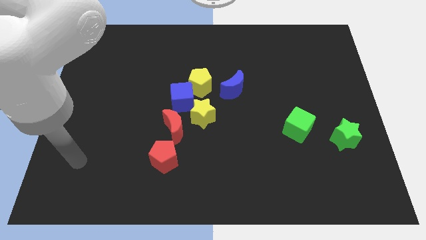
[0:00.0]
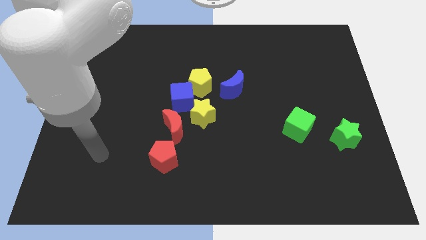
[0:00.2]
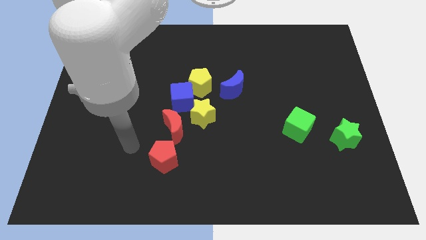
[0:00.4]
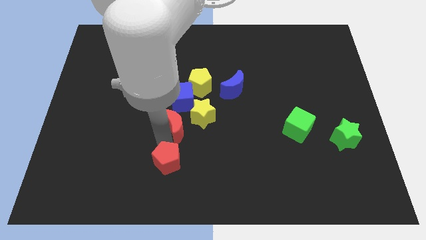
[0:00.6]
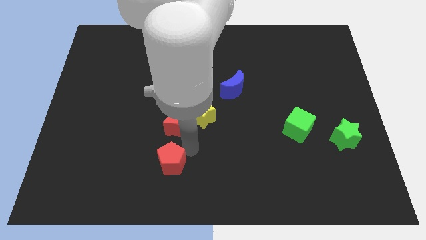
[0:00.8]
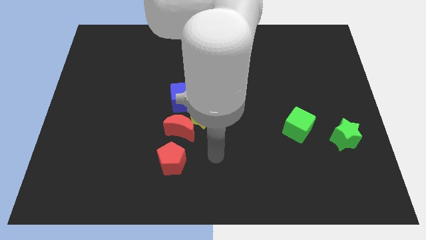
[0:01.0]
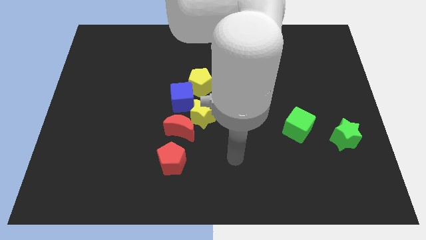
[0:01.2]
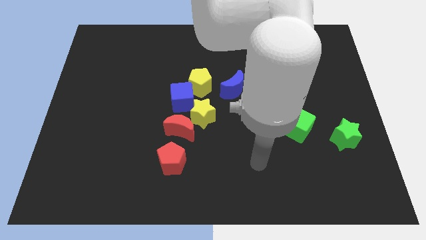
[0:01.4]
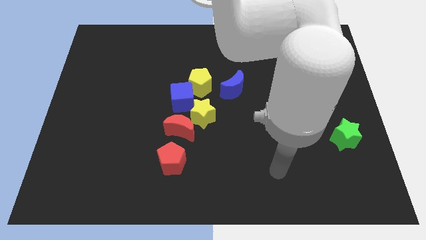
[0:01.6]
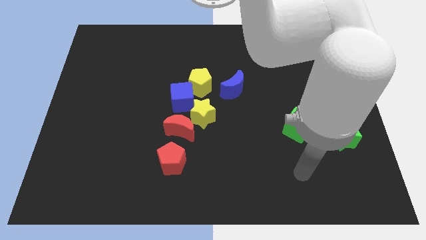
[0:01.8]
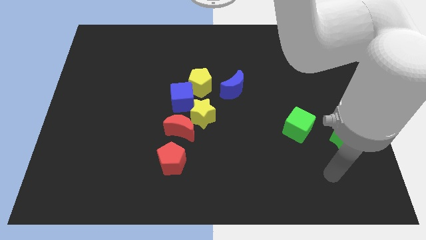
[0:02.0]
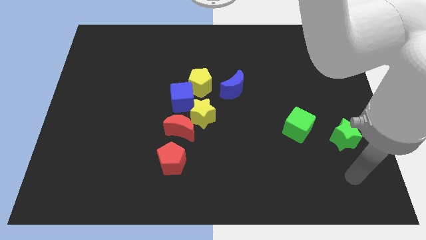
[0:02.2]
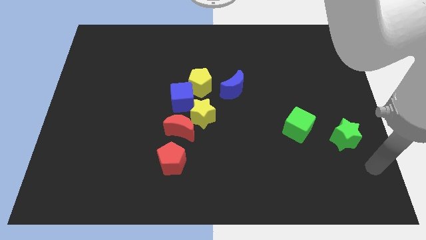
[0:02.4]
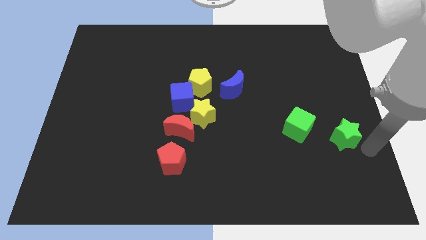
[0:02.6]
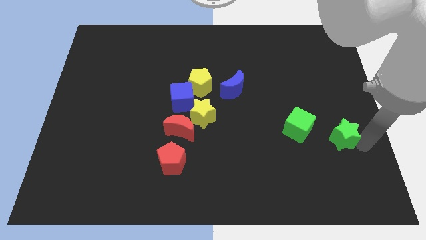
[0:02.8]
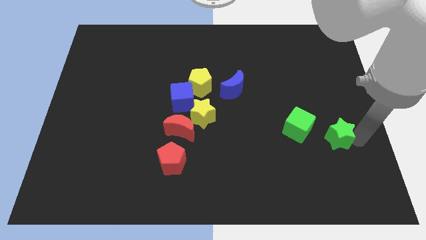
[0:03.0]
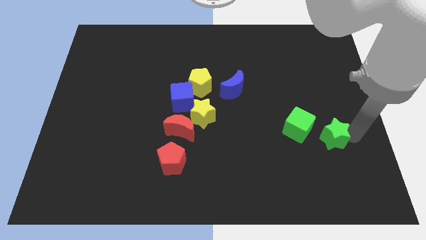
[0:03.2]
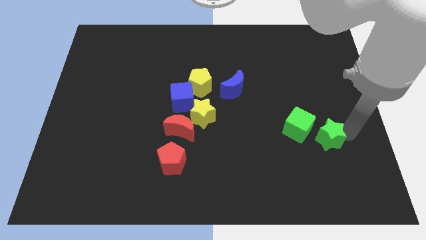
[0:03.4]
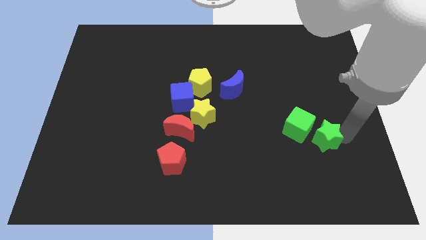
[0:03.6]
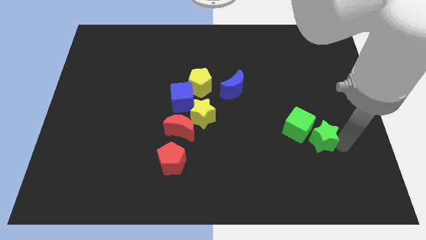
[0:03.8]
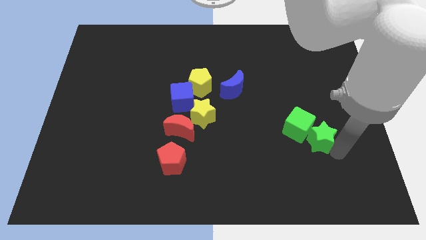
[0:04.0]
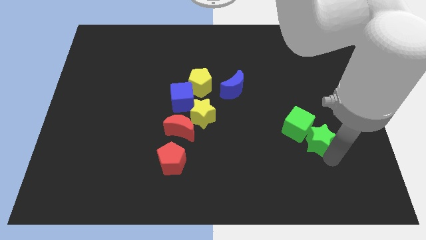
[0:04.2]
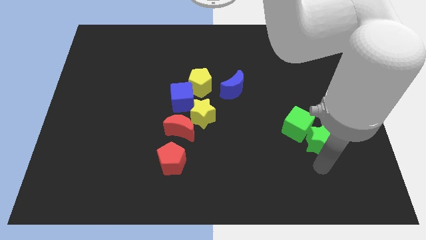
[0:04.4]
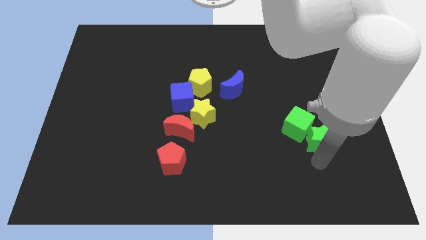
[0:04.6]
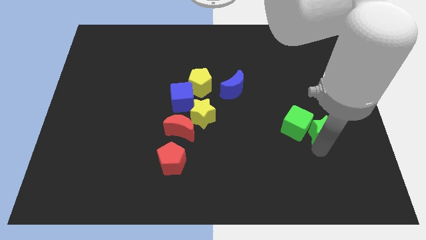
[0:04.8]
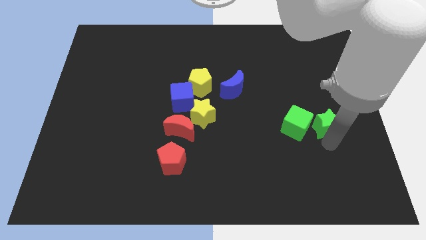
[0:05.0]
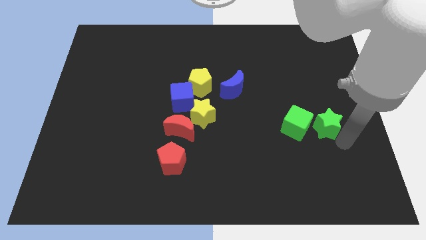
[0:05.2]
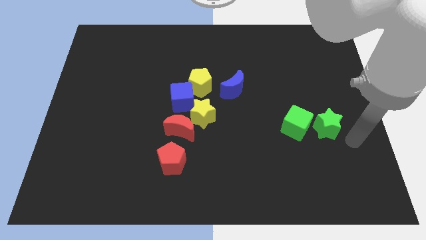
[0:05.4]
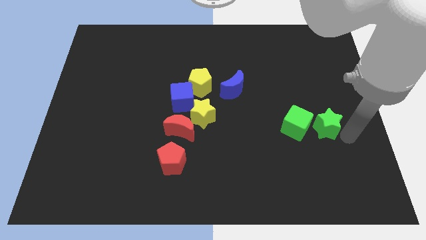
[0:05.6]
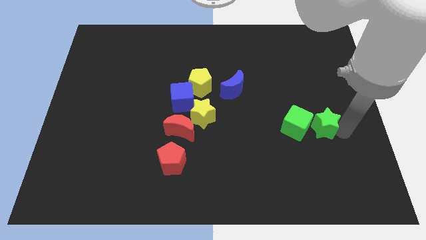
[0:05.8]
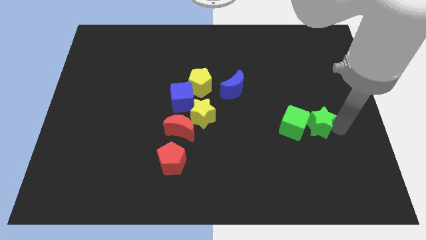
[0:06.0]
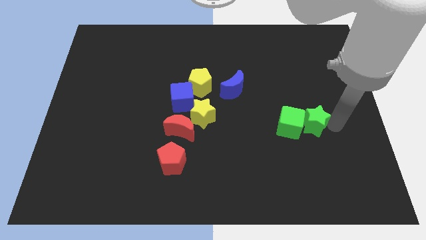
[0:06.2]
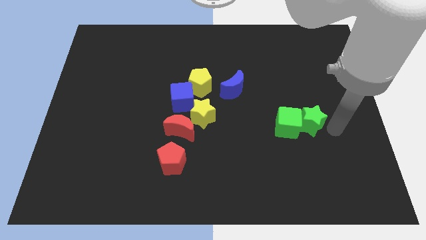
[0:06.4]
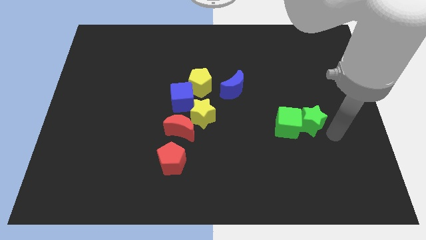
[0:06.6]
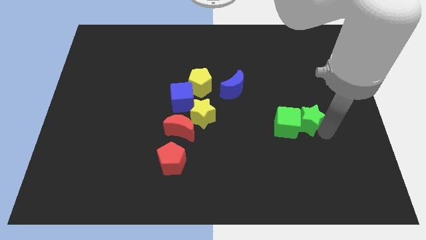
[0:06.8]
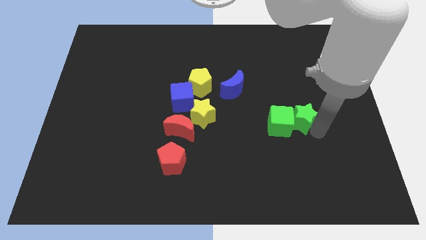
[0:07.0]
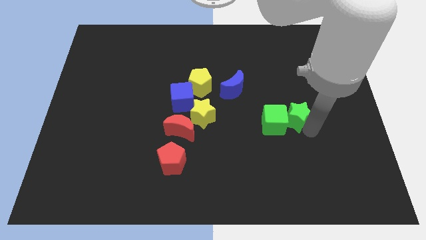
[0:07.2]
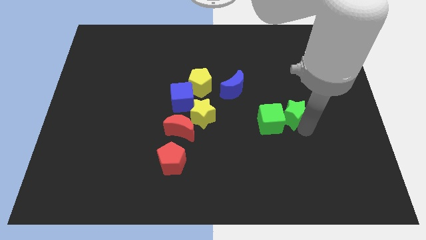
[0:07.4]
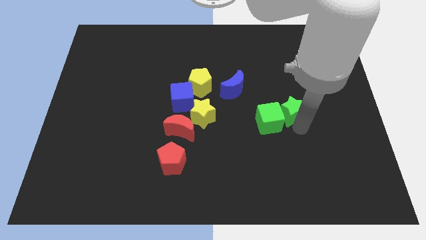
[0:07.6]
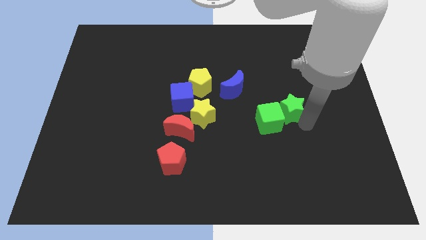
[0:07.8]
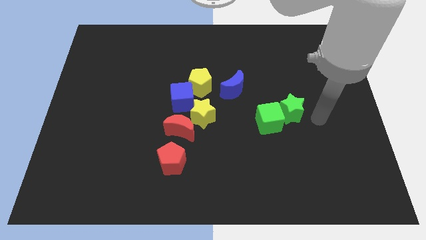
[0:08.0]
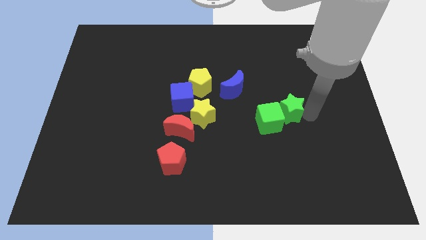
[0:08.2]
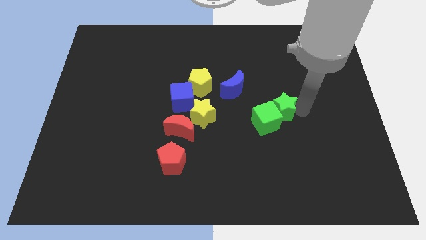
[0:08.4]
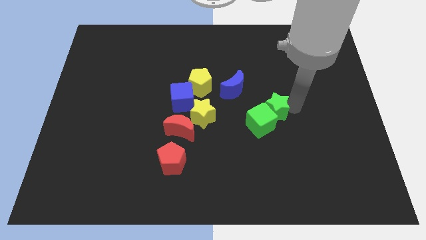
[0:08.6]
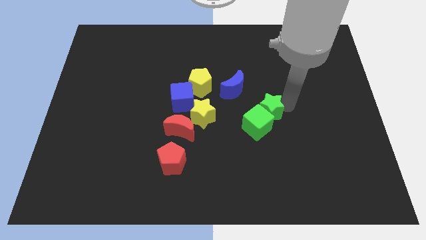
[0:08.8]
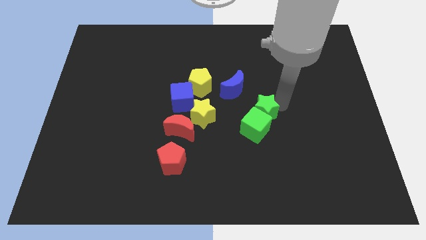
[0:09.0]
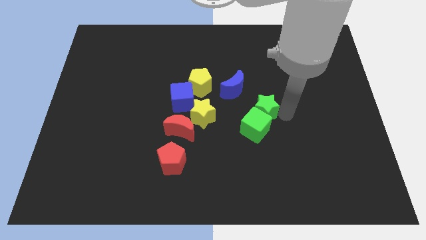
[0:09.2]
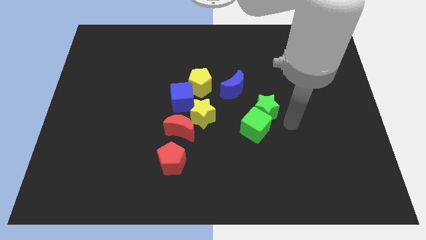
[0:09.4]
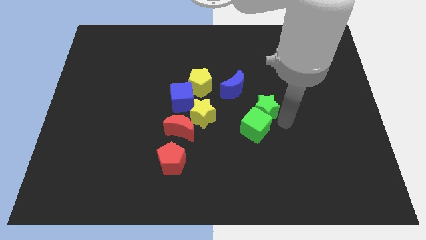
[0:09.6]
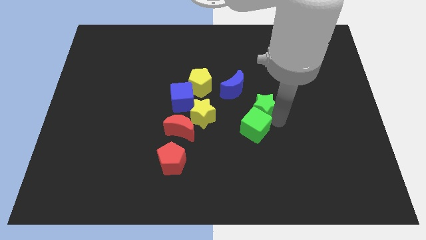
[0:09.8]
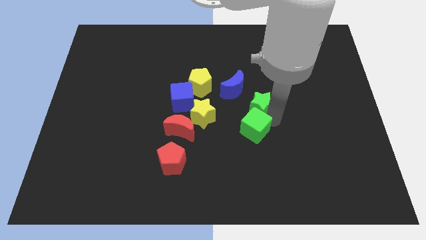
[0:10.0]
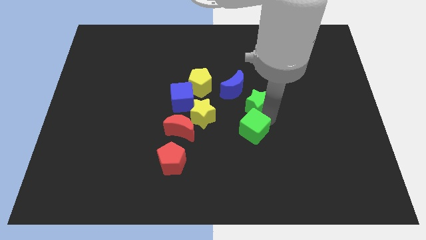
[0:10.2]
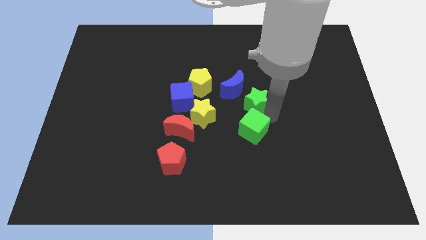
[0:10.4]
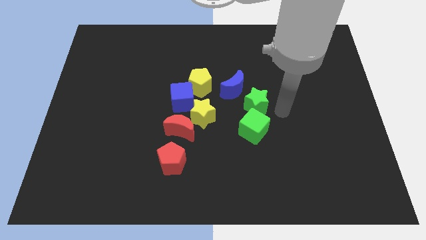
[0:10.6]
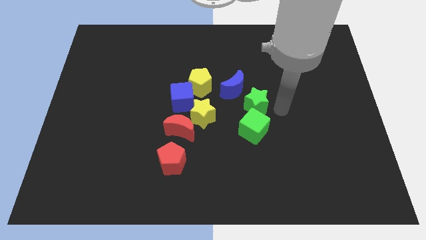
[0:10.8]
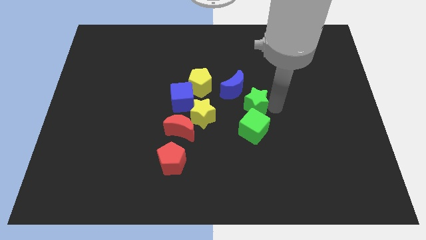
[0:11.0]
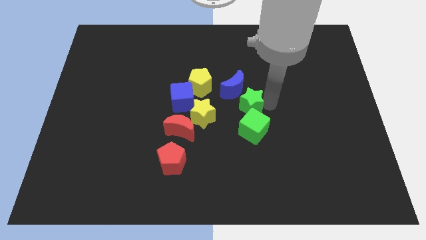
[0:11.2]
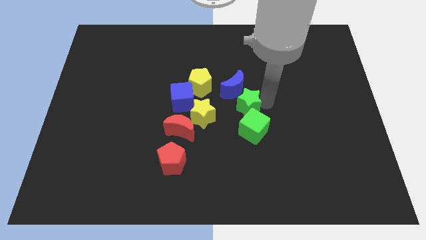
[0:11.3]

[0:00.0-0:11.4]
move the green star to the right of the blue cube
